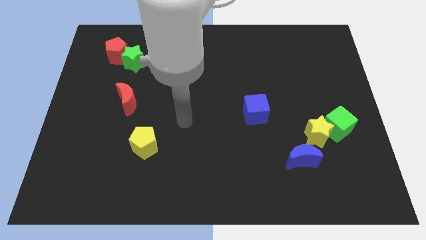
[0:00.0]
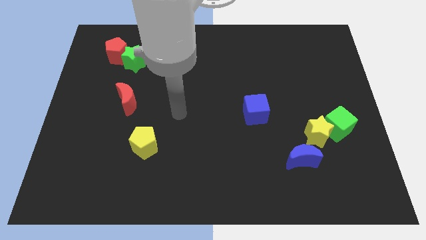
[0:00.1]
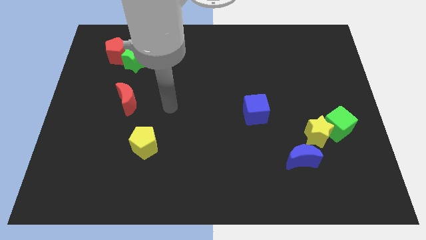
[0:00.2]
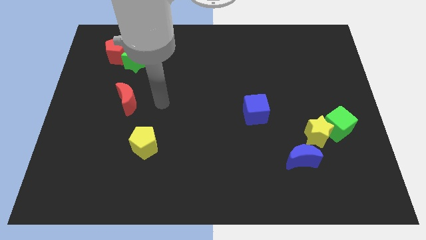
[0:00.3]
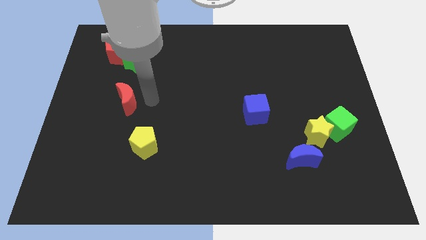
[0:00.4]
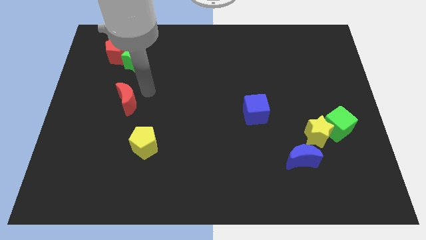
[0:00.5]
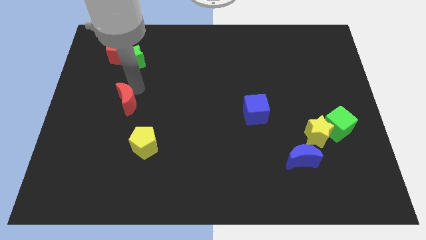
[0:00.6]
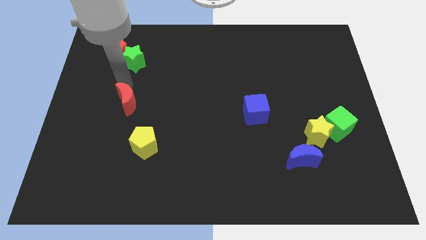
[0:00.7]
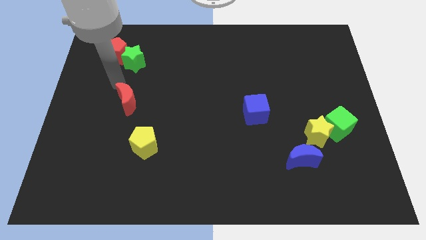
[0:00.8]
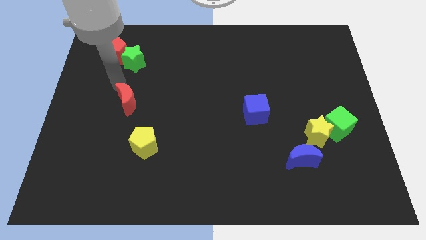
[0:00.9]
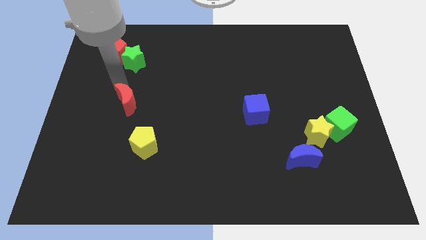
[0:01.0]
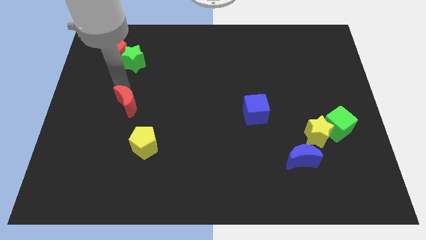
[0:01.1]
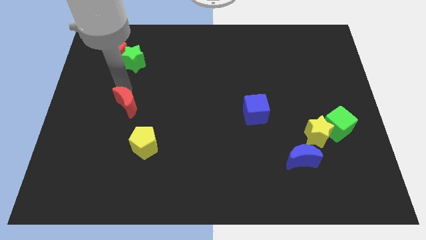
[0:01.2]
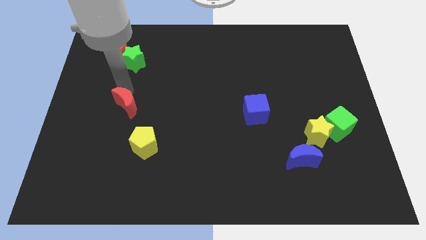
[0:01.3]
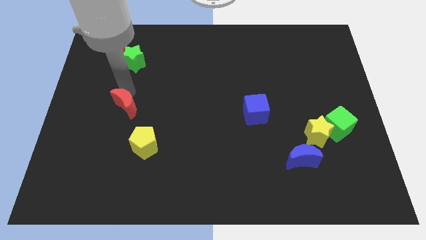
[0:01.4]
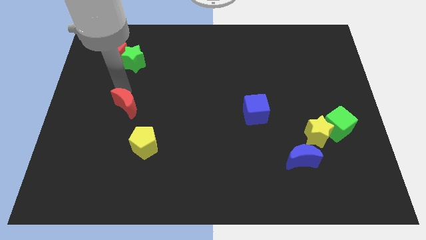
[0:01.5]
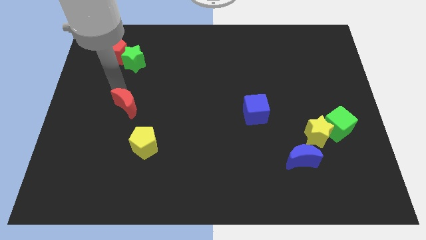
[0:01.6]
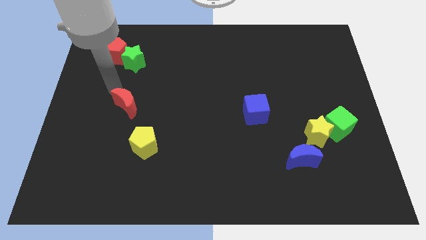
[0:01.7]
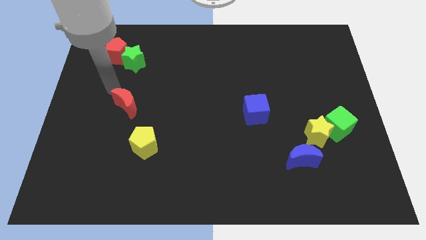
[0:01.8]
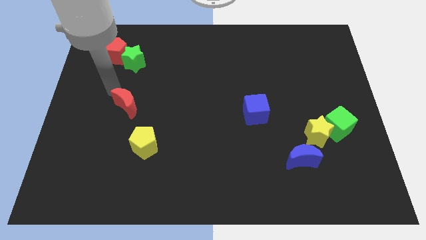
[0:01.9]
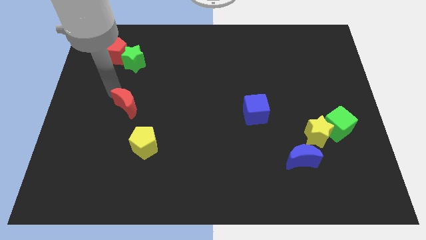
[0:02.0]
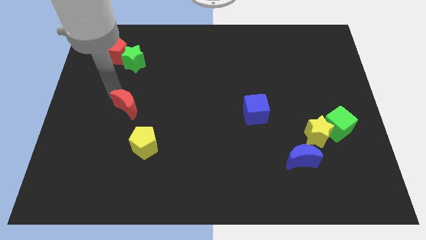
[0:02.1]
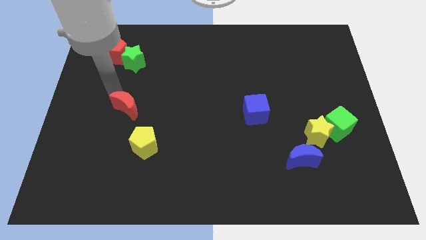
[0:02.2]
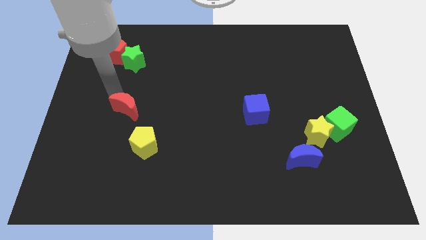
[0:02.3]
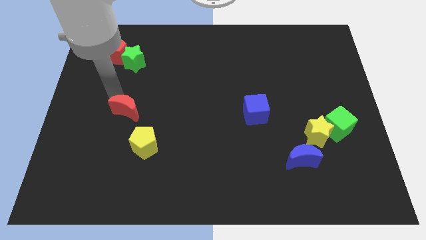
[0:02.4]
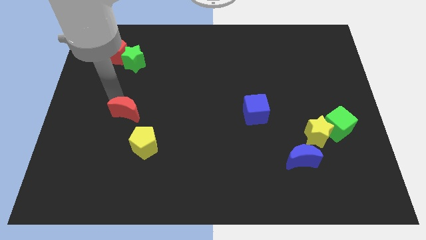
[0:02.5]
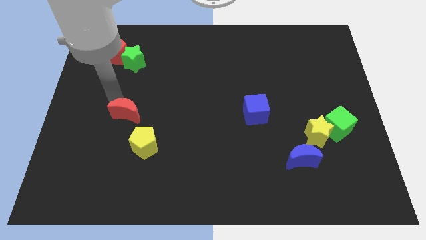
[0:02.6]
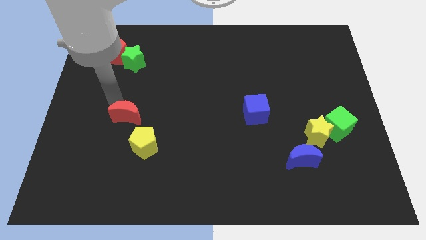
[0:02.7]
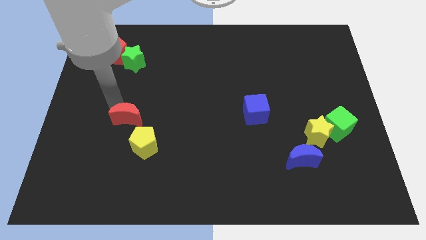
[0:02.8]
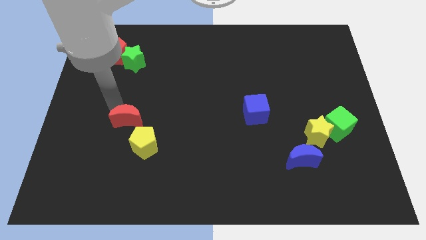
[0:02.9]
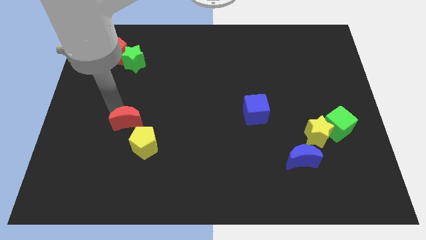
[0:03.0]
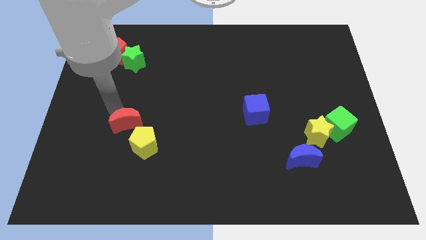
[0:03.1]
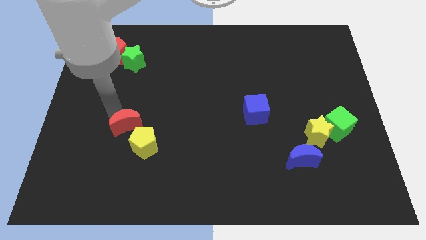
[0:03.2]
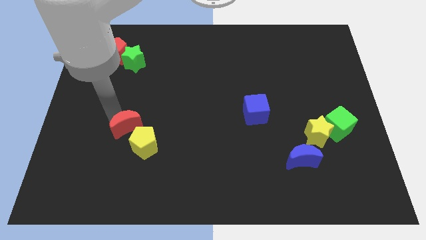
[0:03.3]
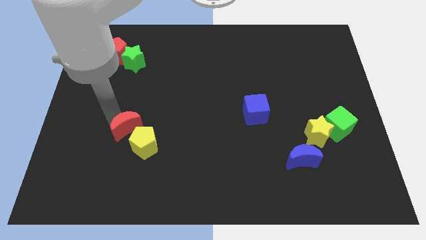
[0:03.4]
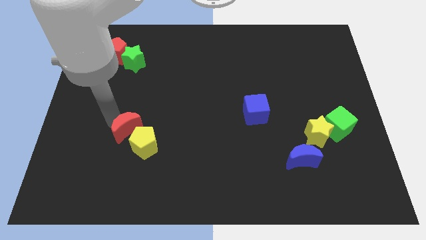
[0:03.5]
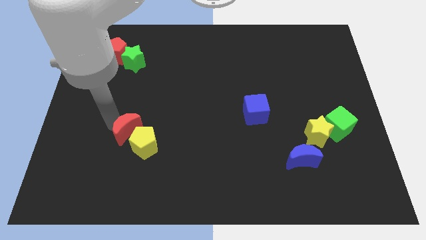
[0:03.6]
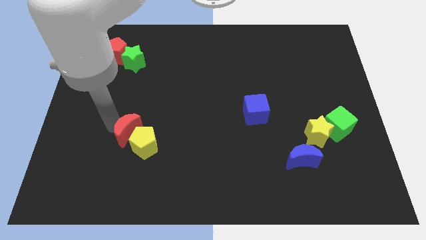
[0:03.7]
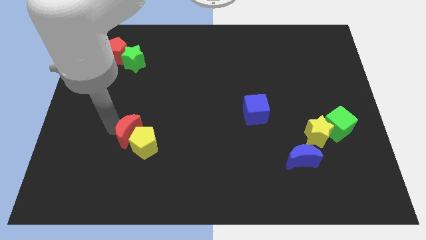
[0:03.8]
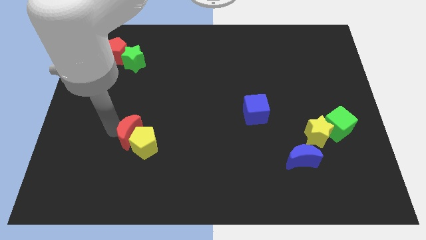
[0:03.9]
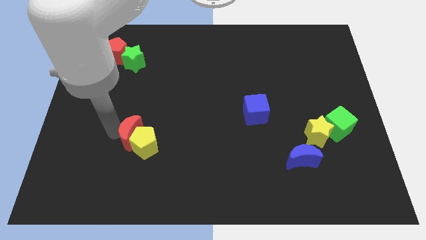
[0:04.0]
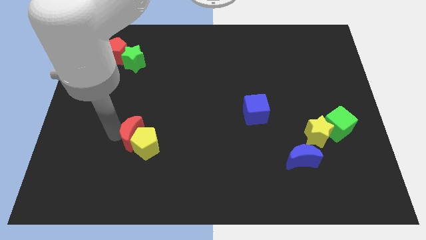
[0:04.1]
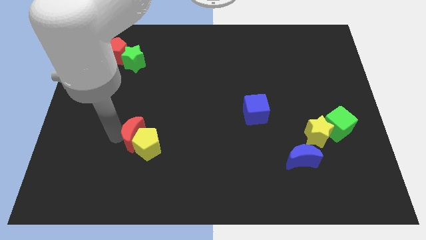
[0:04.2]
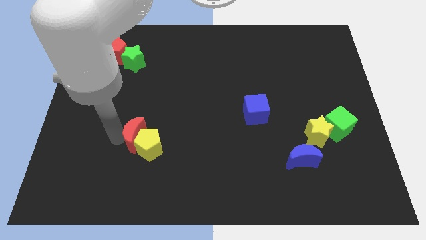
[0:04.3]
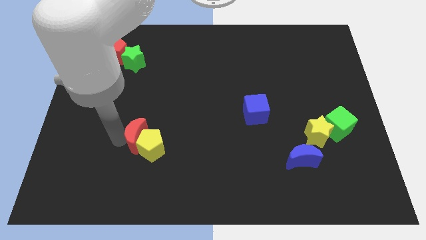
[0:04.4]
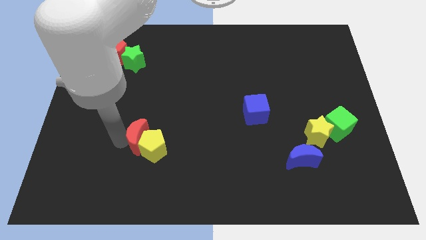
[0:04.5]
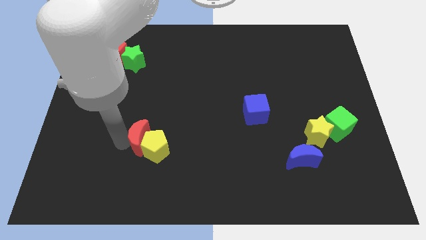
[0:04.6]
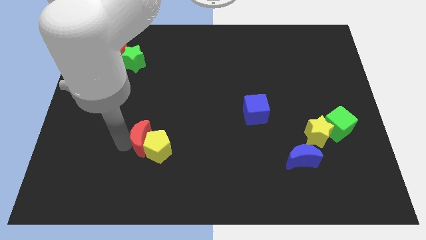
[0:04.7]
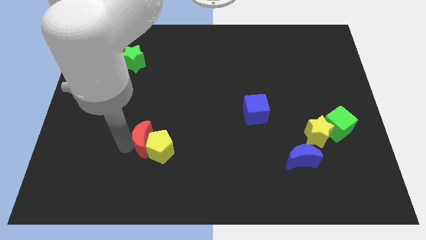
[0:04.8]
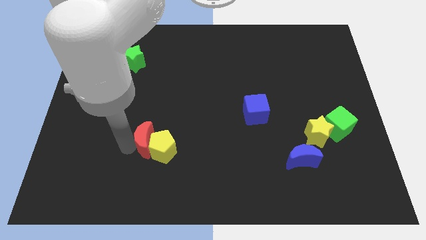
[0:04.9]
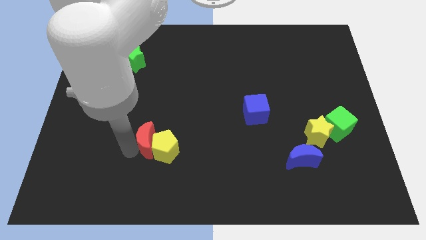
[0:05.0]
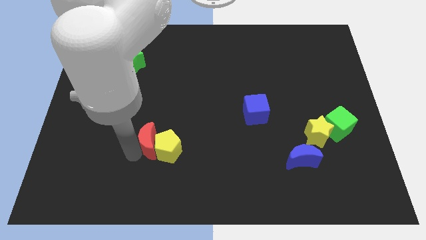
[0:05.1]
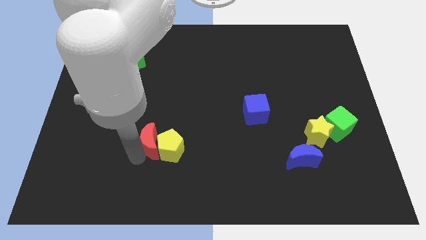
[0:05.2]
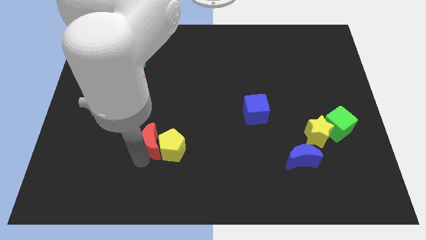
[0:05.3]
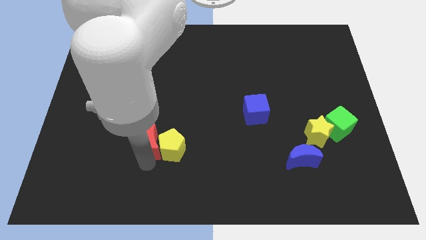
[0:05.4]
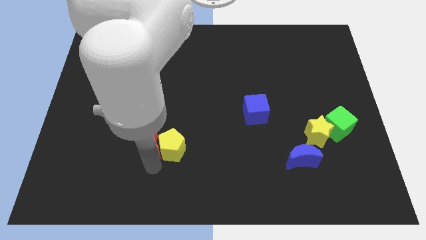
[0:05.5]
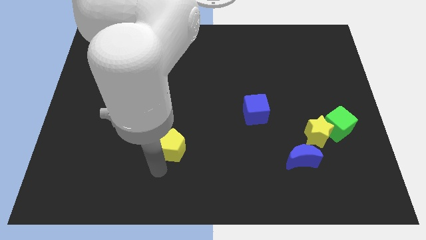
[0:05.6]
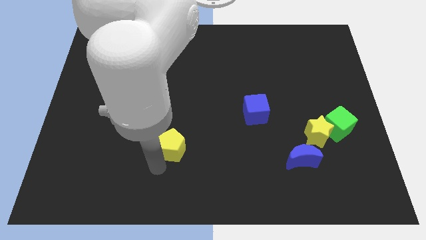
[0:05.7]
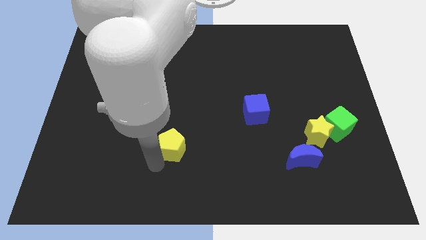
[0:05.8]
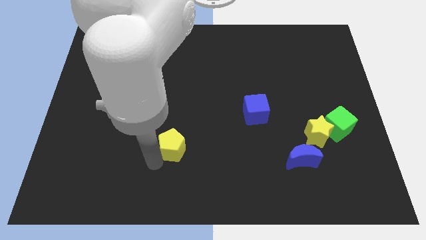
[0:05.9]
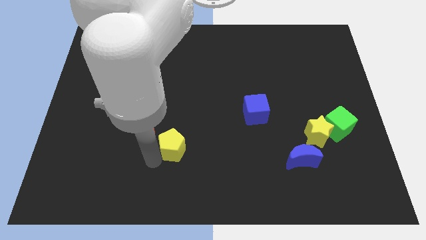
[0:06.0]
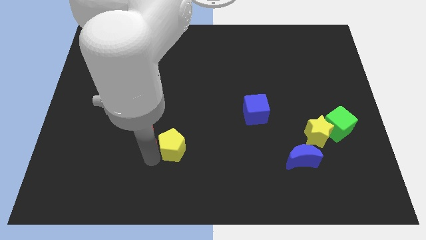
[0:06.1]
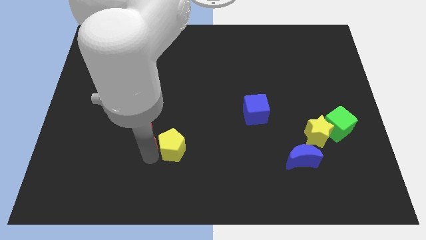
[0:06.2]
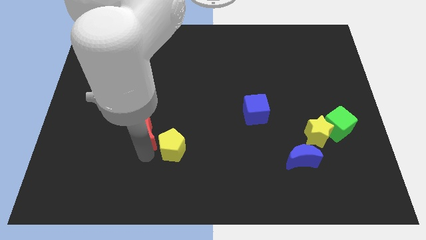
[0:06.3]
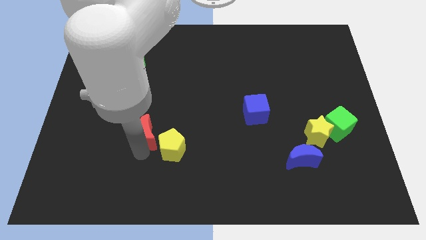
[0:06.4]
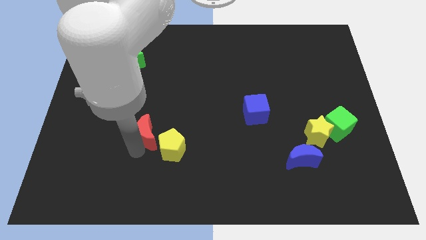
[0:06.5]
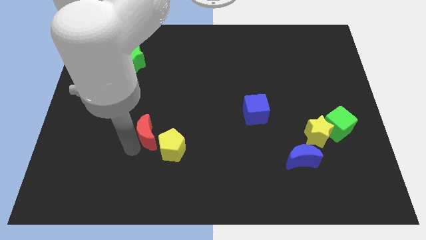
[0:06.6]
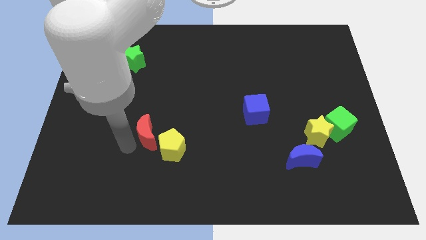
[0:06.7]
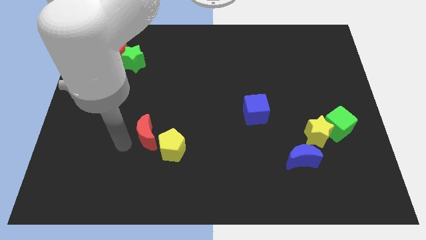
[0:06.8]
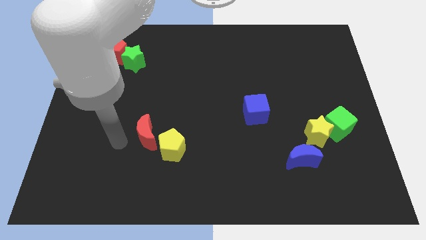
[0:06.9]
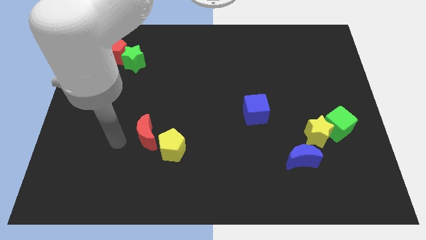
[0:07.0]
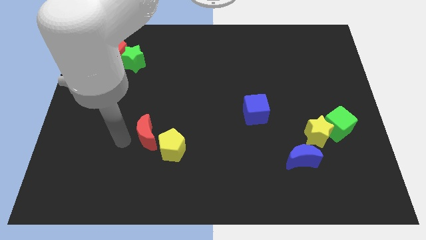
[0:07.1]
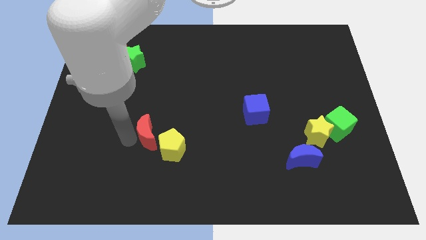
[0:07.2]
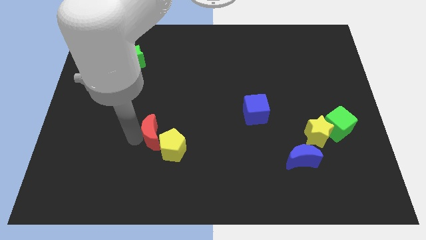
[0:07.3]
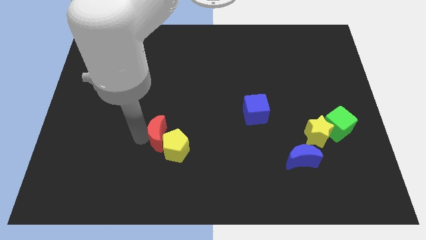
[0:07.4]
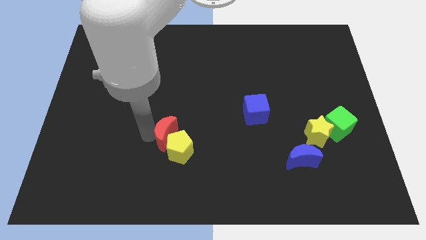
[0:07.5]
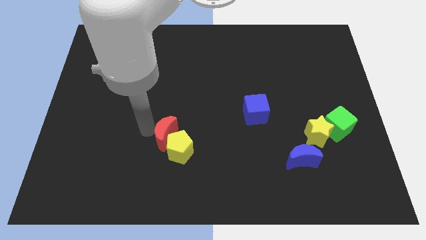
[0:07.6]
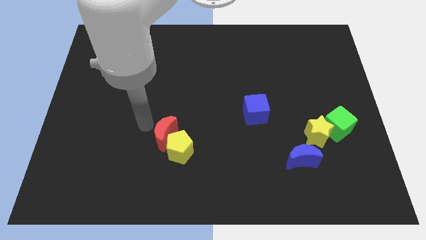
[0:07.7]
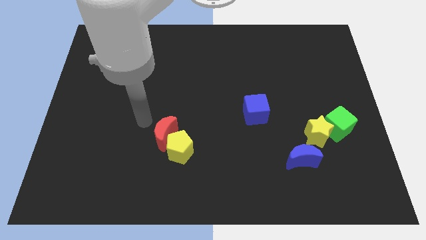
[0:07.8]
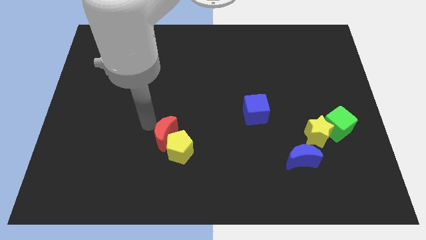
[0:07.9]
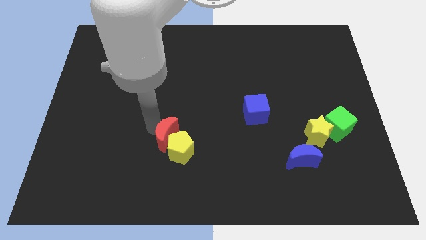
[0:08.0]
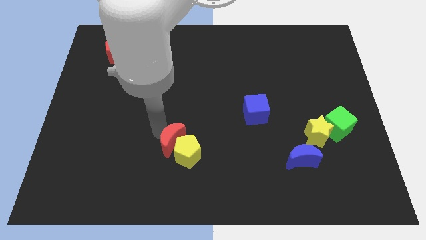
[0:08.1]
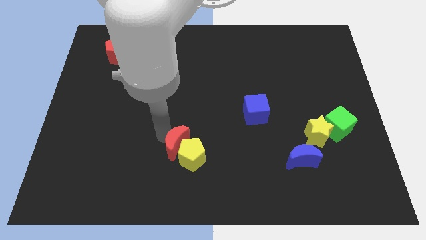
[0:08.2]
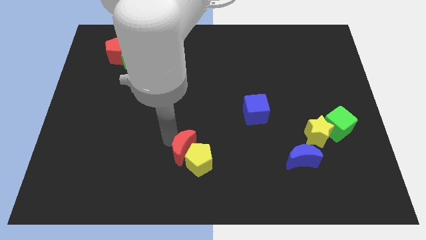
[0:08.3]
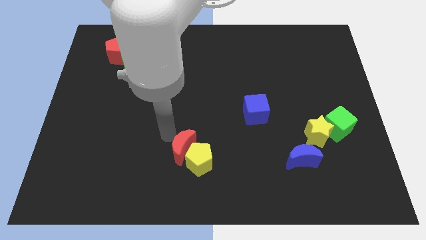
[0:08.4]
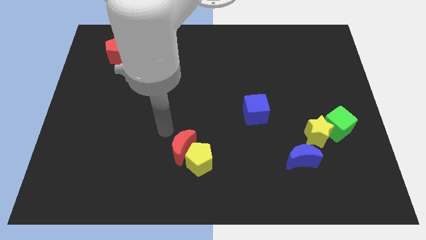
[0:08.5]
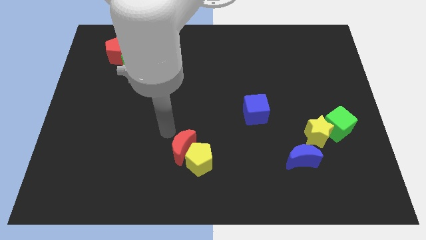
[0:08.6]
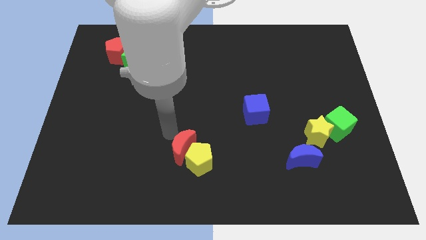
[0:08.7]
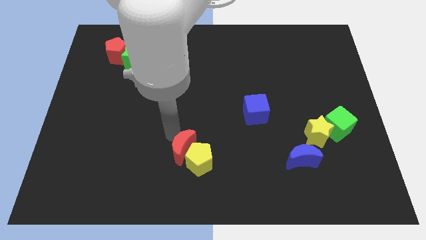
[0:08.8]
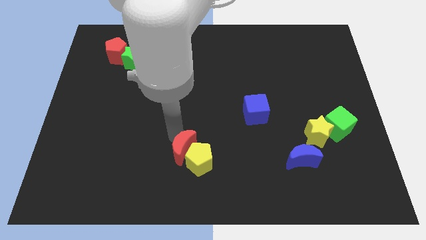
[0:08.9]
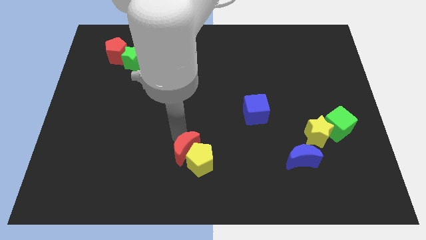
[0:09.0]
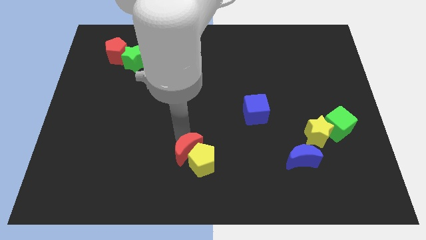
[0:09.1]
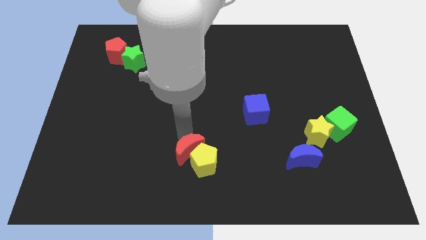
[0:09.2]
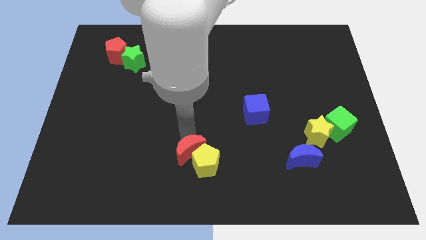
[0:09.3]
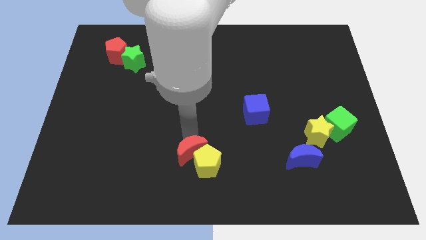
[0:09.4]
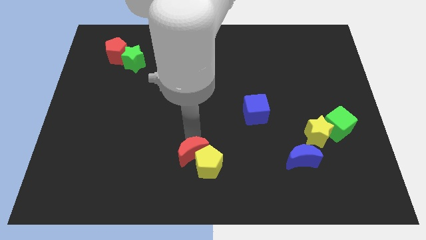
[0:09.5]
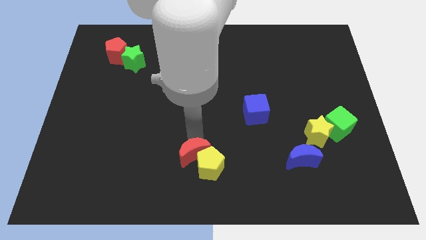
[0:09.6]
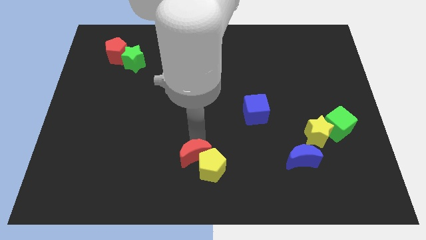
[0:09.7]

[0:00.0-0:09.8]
push the red moon to the bottom
